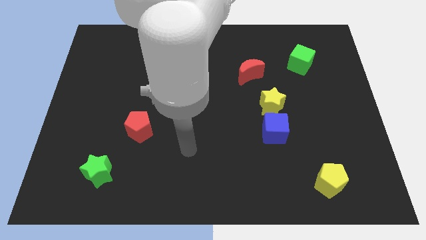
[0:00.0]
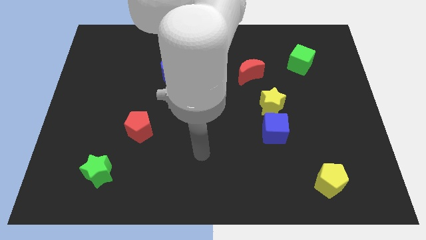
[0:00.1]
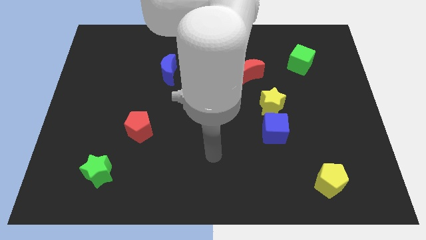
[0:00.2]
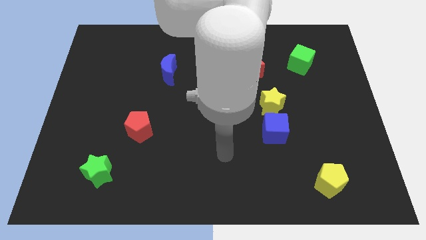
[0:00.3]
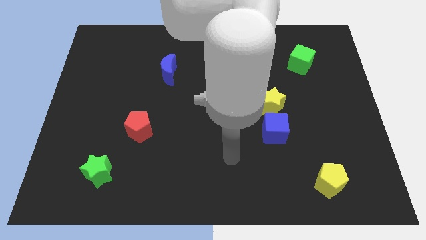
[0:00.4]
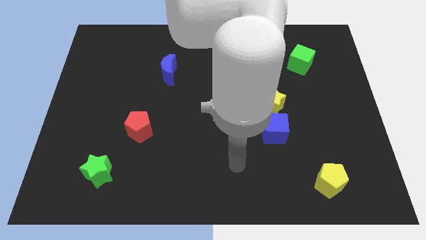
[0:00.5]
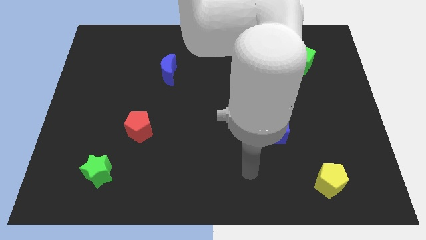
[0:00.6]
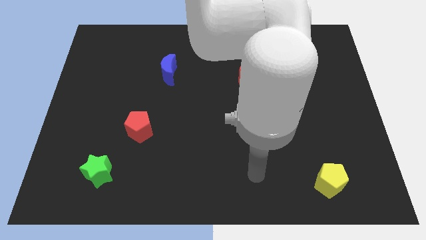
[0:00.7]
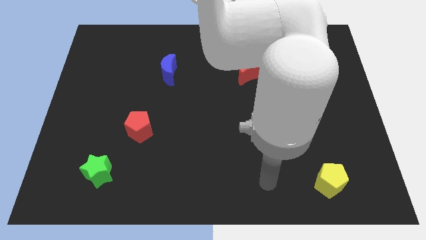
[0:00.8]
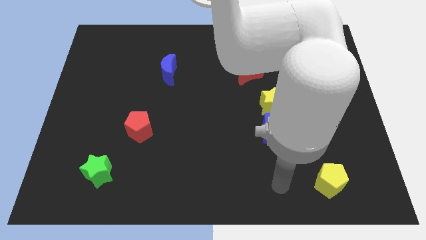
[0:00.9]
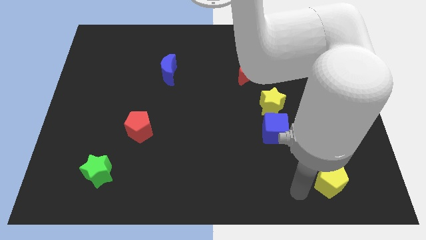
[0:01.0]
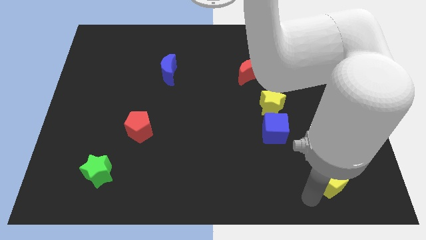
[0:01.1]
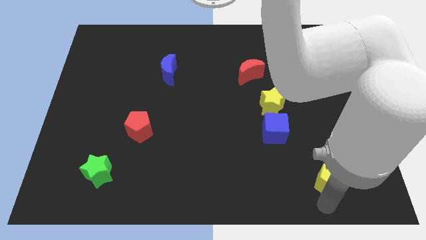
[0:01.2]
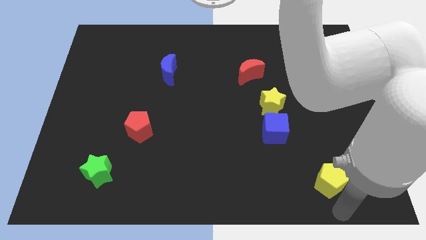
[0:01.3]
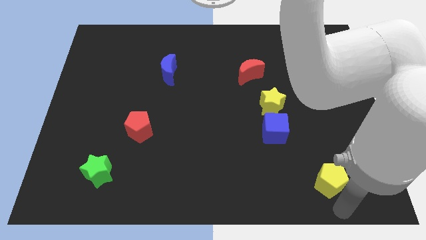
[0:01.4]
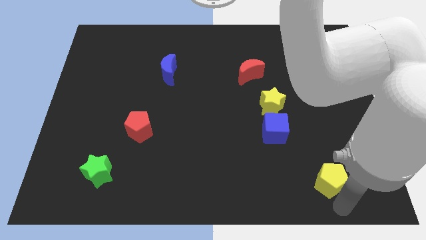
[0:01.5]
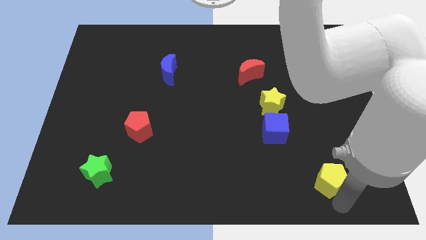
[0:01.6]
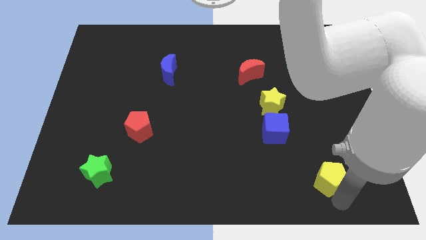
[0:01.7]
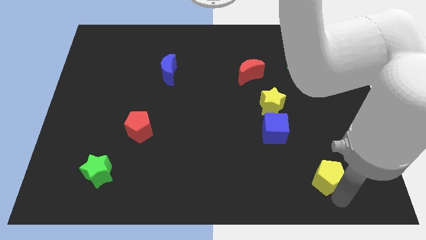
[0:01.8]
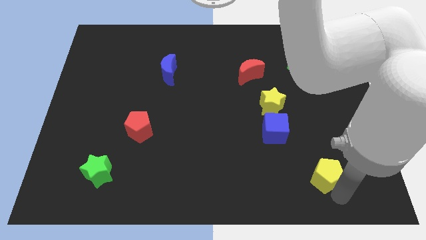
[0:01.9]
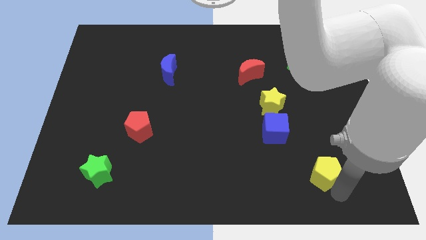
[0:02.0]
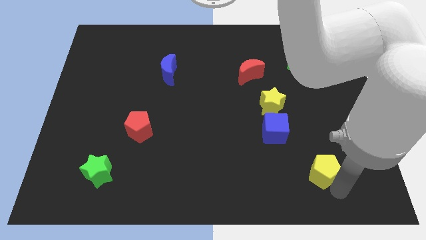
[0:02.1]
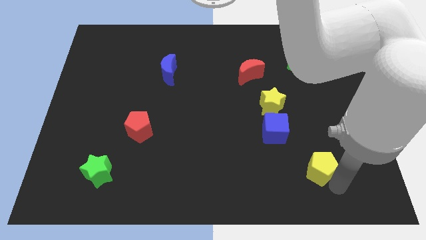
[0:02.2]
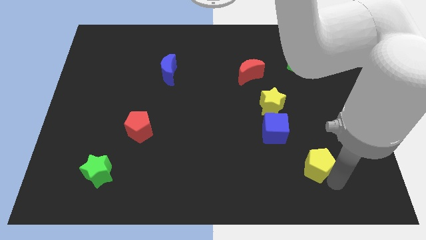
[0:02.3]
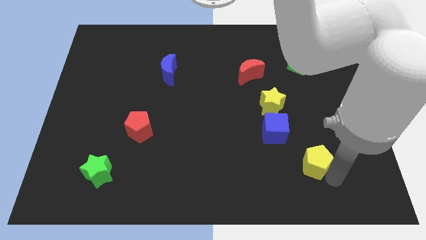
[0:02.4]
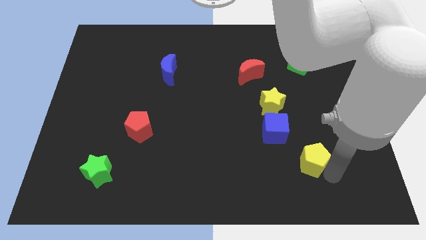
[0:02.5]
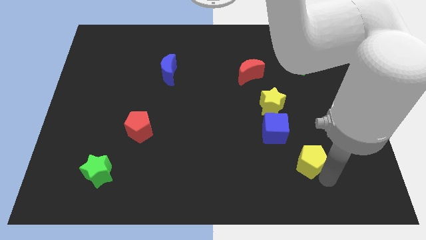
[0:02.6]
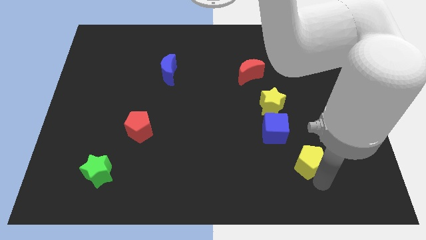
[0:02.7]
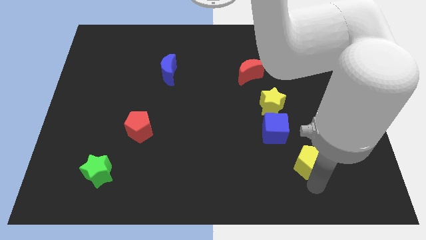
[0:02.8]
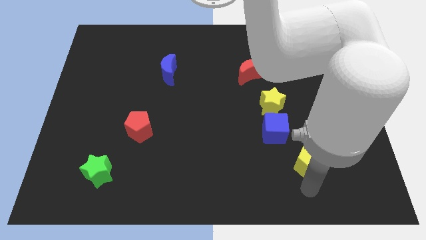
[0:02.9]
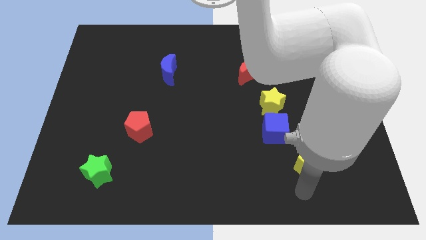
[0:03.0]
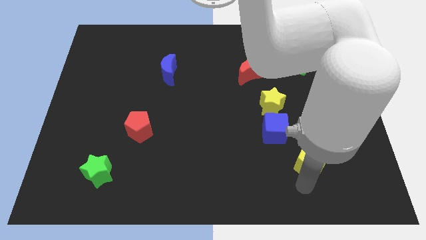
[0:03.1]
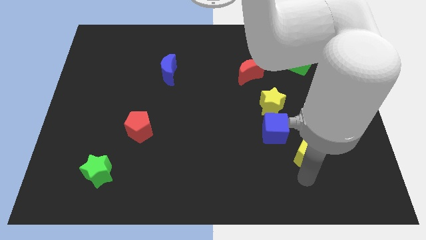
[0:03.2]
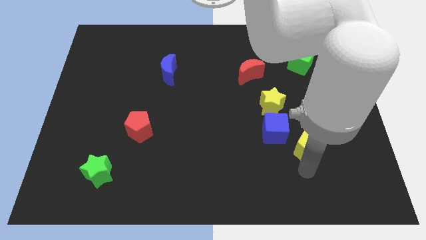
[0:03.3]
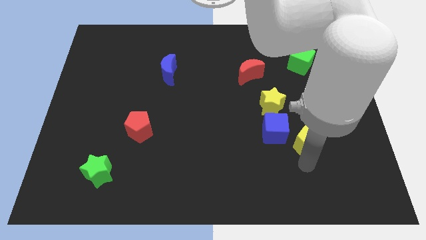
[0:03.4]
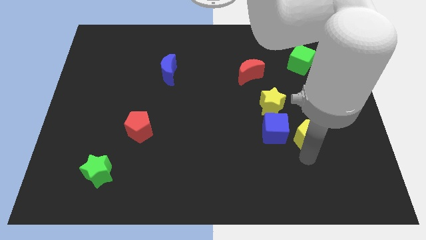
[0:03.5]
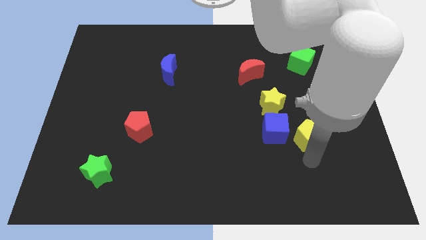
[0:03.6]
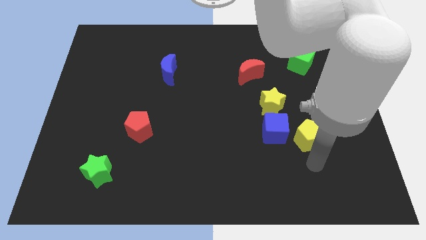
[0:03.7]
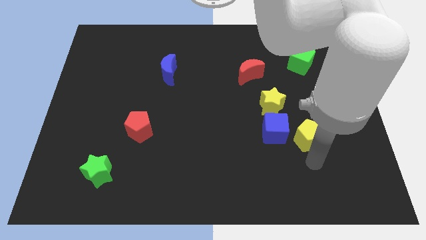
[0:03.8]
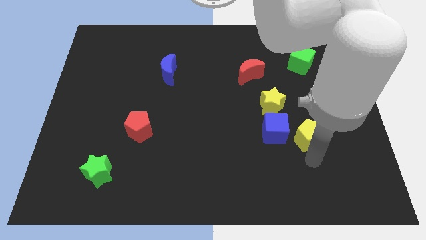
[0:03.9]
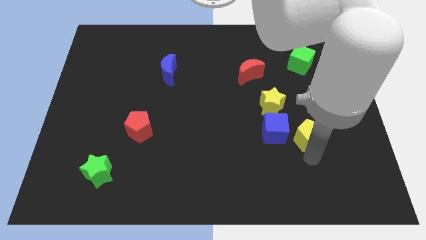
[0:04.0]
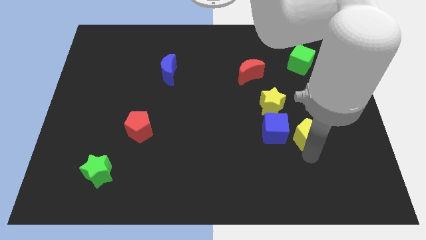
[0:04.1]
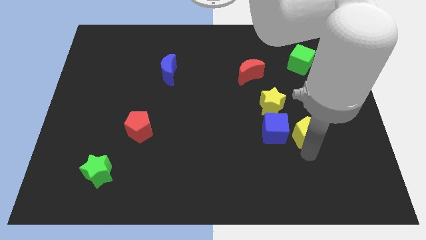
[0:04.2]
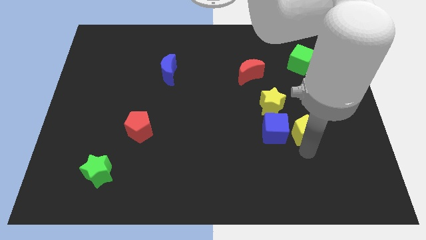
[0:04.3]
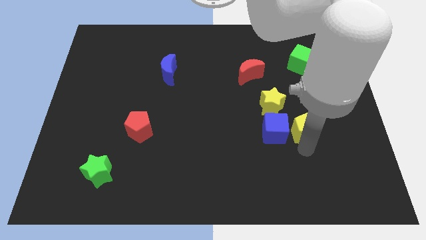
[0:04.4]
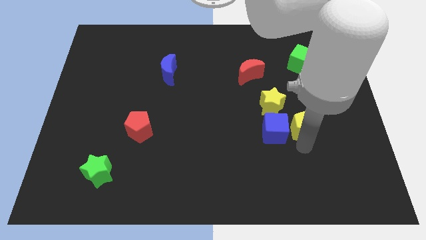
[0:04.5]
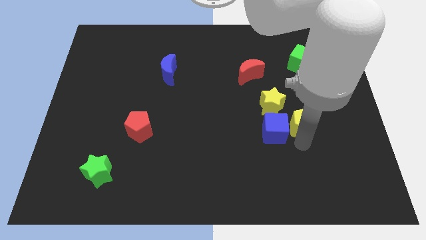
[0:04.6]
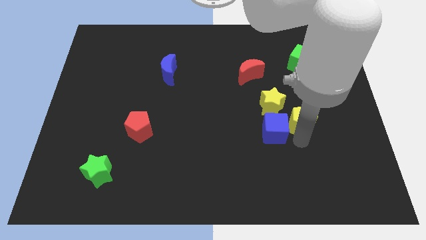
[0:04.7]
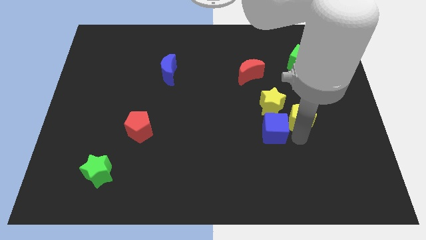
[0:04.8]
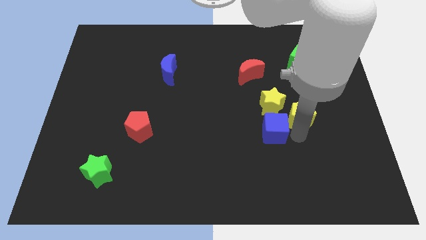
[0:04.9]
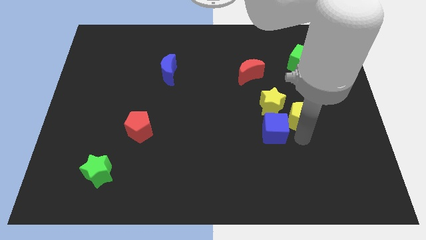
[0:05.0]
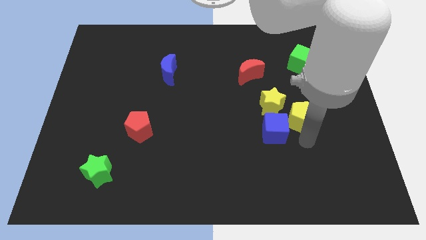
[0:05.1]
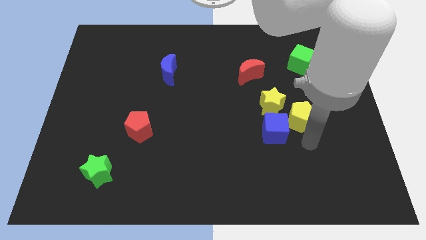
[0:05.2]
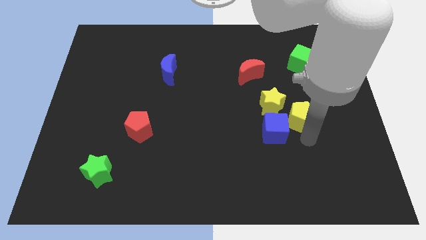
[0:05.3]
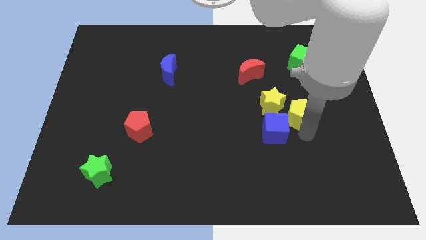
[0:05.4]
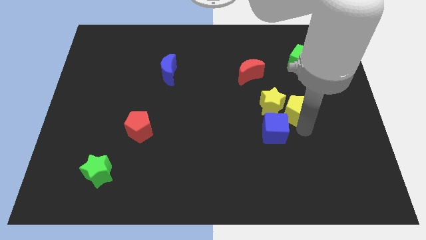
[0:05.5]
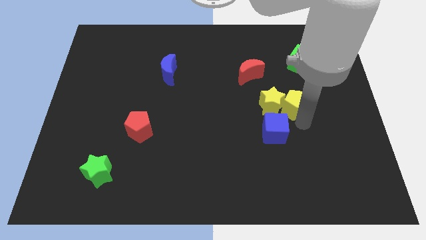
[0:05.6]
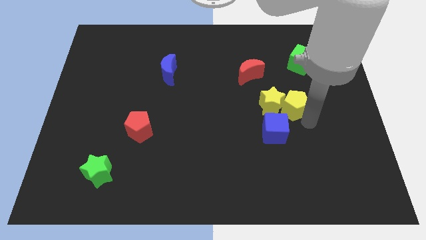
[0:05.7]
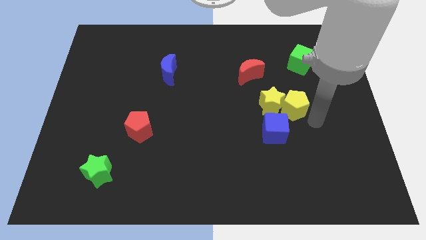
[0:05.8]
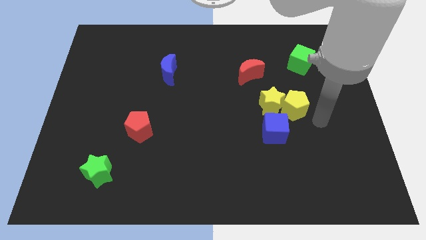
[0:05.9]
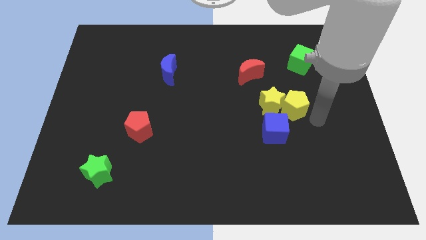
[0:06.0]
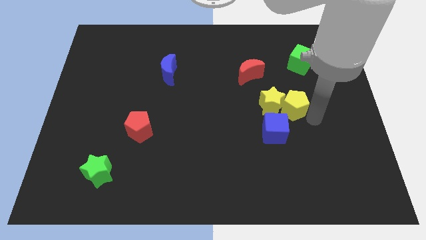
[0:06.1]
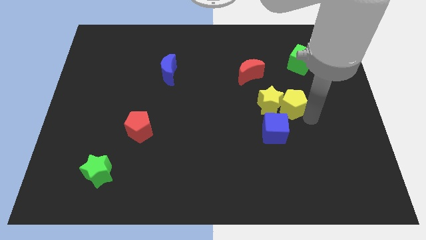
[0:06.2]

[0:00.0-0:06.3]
push the yellow pentagon above the blue cube
